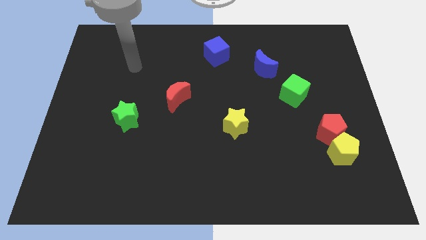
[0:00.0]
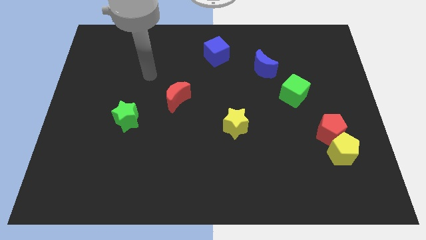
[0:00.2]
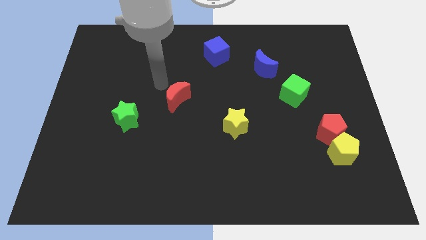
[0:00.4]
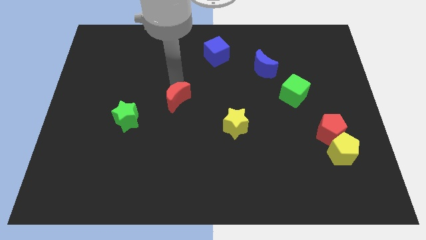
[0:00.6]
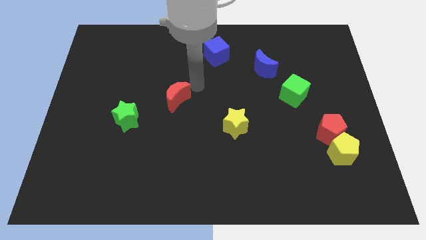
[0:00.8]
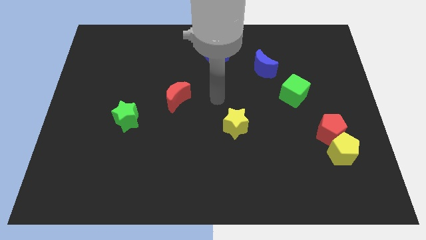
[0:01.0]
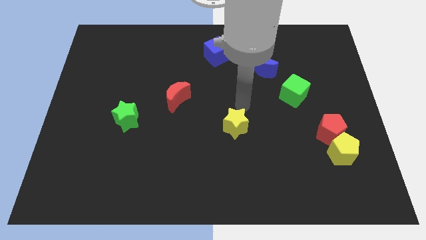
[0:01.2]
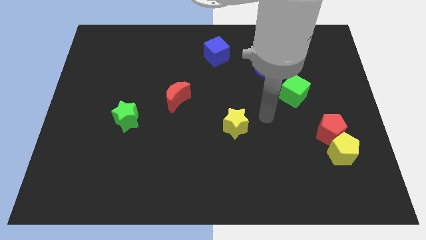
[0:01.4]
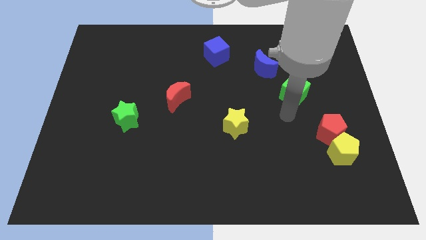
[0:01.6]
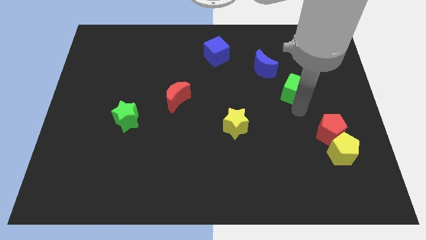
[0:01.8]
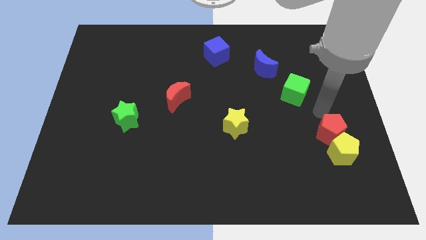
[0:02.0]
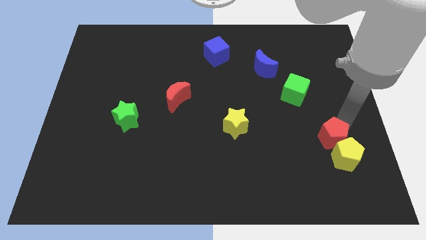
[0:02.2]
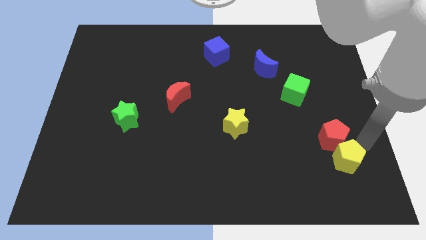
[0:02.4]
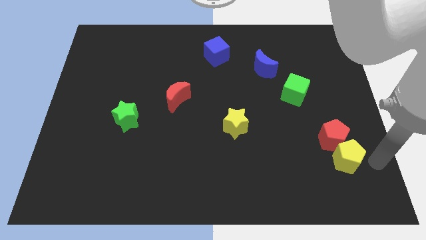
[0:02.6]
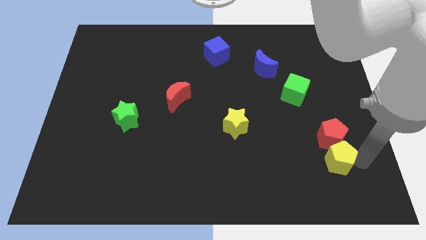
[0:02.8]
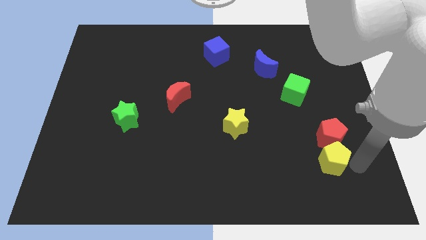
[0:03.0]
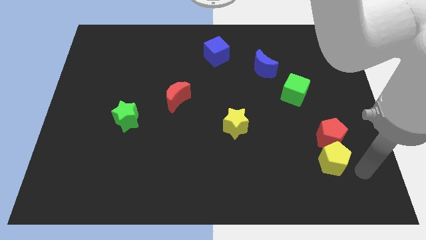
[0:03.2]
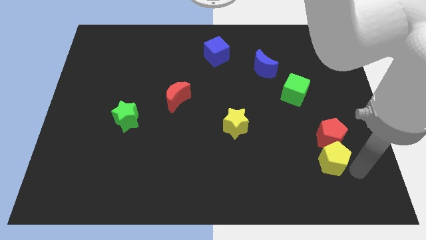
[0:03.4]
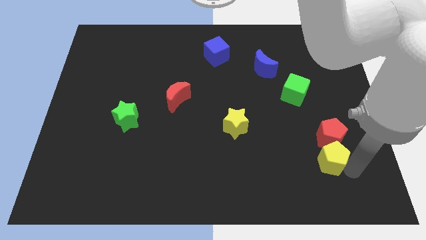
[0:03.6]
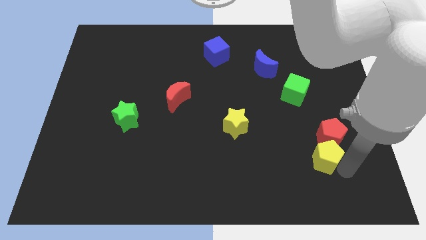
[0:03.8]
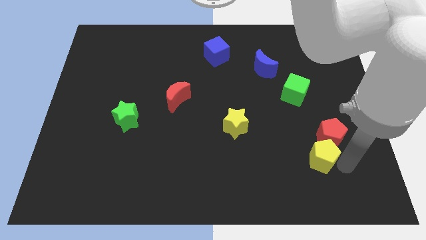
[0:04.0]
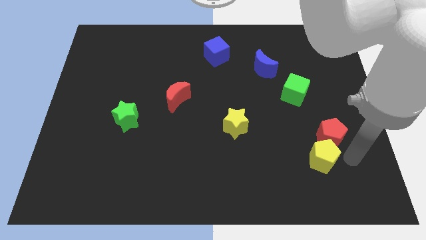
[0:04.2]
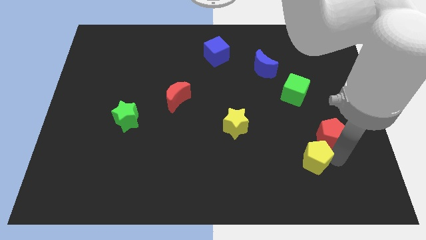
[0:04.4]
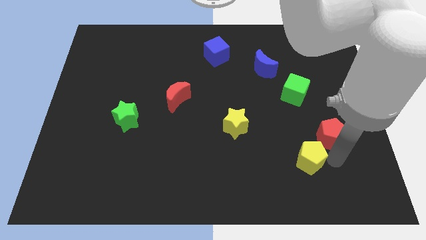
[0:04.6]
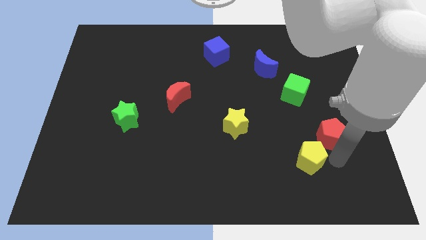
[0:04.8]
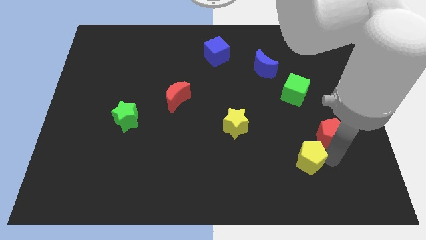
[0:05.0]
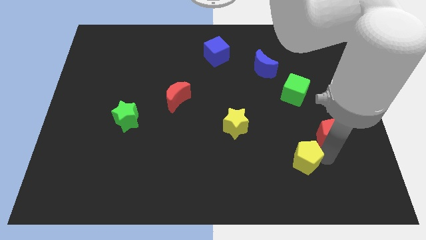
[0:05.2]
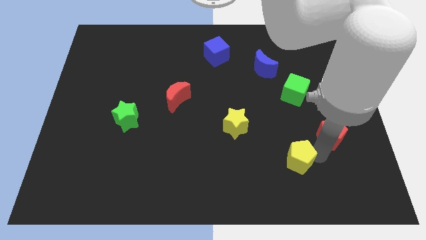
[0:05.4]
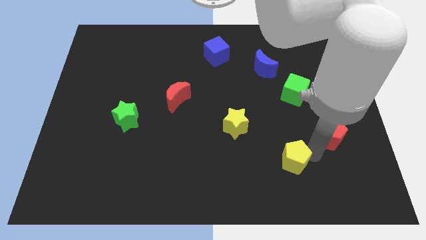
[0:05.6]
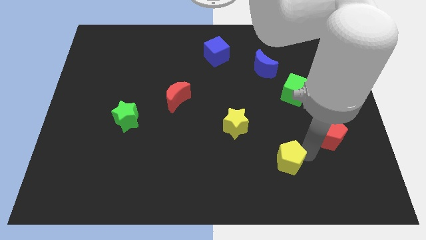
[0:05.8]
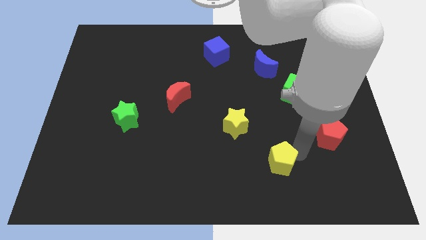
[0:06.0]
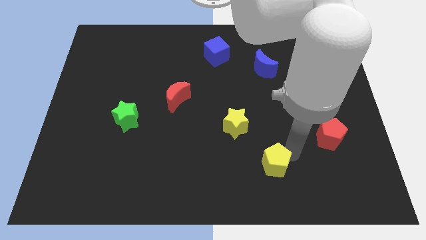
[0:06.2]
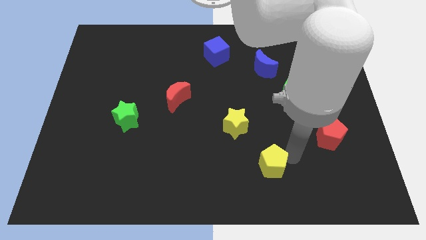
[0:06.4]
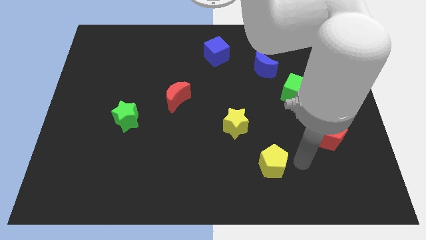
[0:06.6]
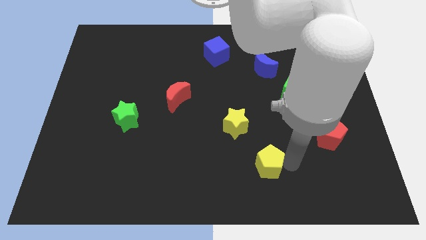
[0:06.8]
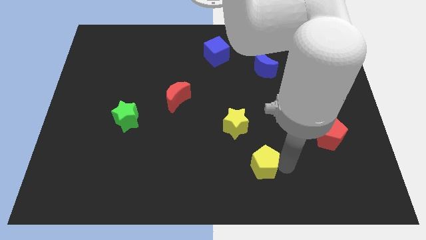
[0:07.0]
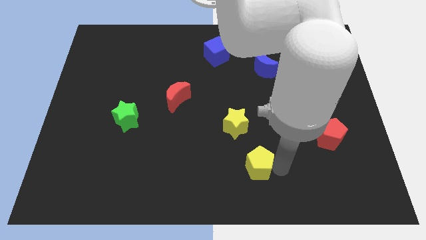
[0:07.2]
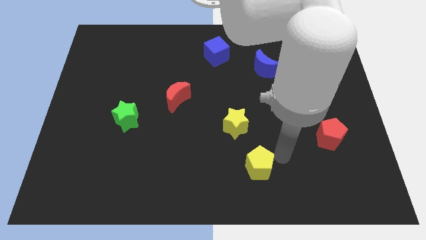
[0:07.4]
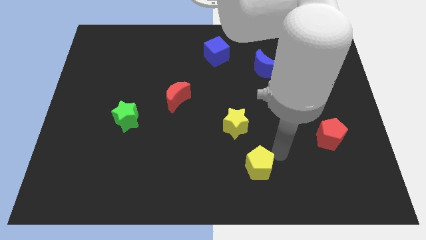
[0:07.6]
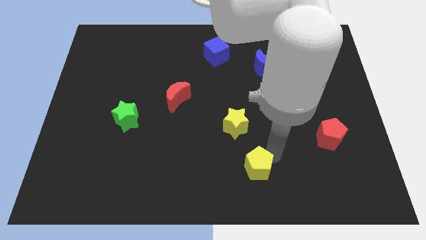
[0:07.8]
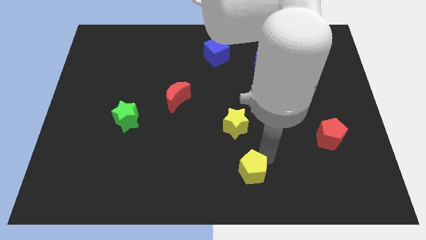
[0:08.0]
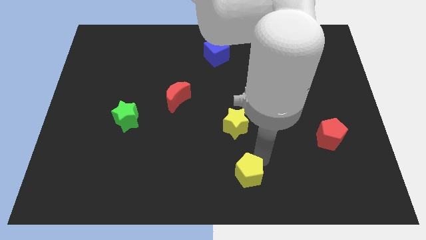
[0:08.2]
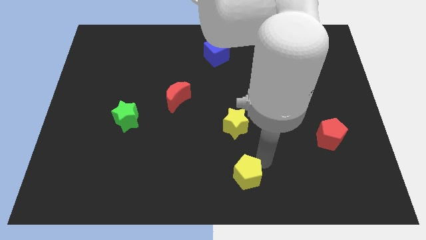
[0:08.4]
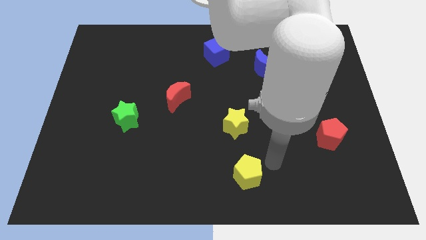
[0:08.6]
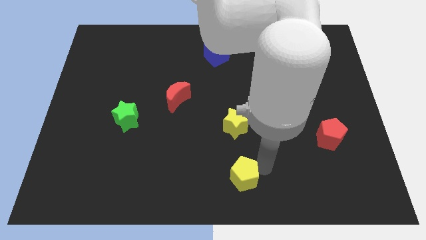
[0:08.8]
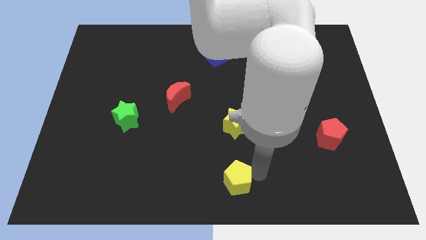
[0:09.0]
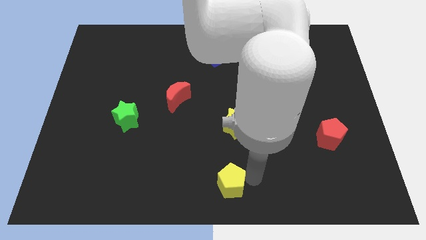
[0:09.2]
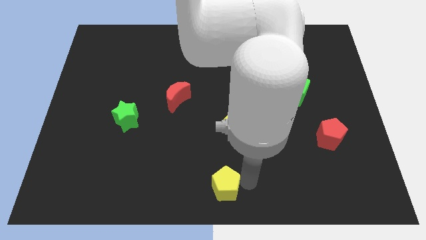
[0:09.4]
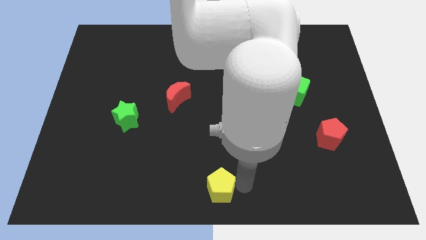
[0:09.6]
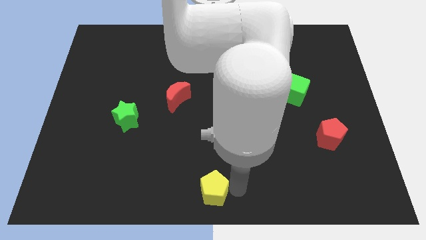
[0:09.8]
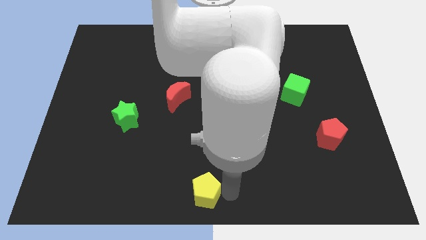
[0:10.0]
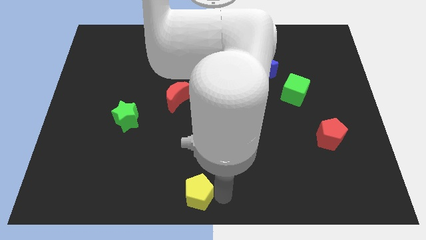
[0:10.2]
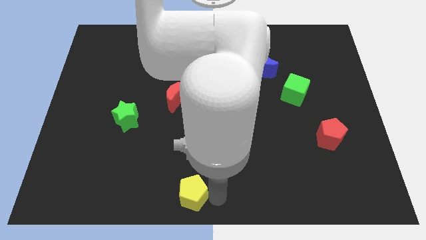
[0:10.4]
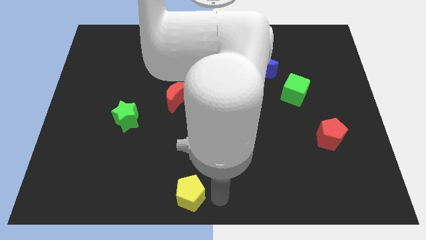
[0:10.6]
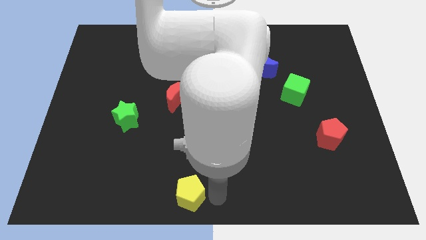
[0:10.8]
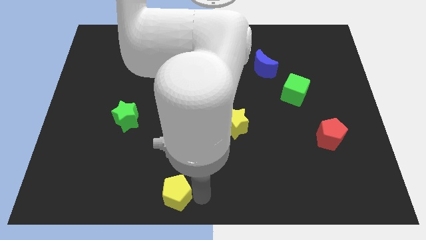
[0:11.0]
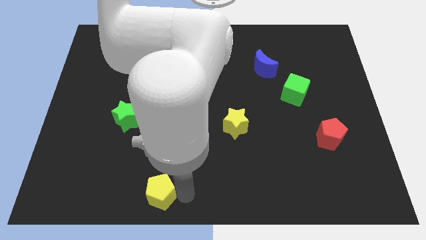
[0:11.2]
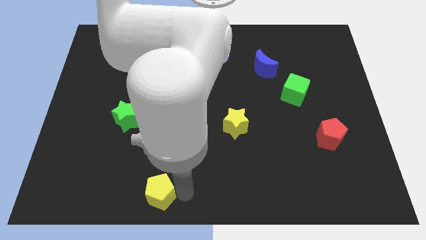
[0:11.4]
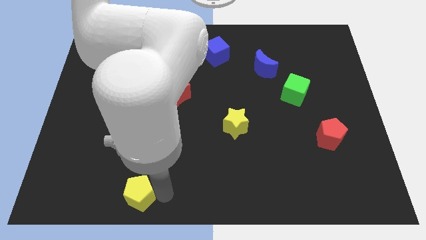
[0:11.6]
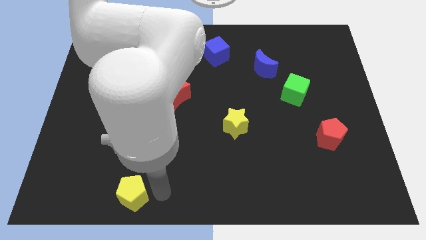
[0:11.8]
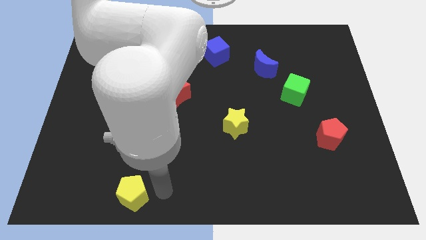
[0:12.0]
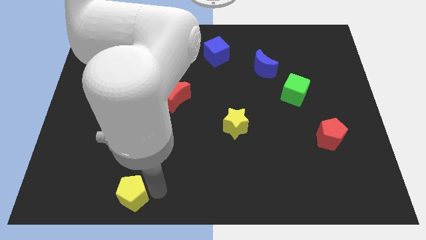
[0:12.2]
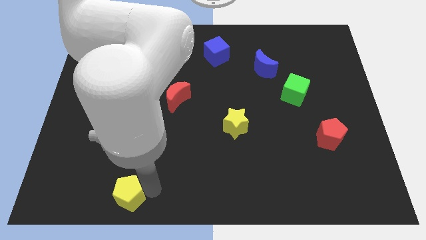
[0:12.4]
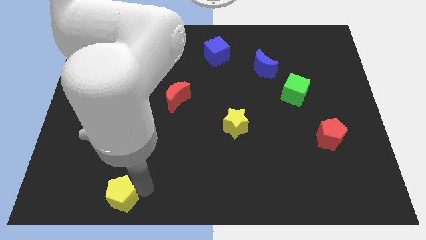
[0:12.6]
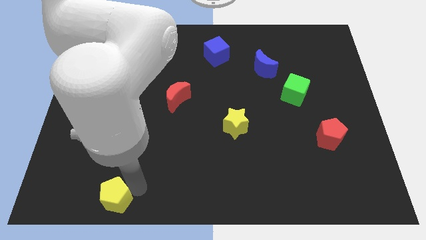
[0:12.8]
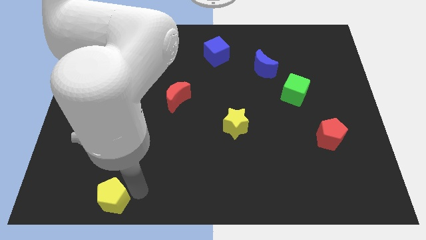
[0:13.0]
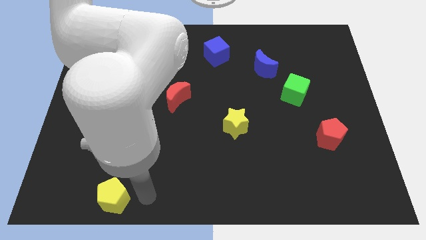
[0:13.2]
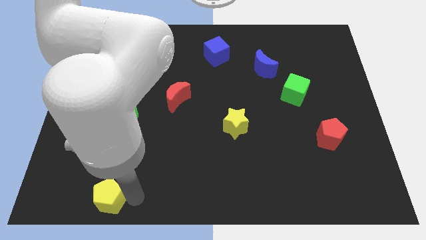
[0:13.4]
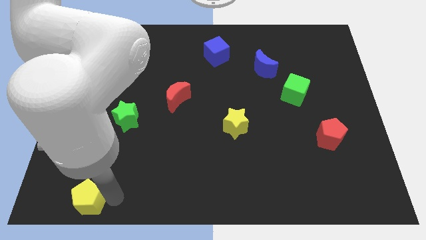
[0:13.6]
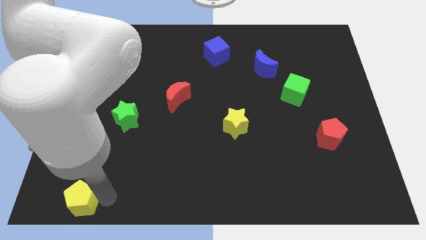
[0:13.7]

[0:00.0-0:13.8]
slide the yellow pentagon to the bottom left

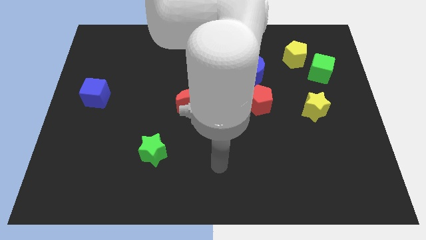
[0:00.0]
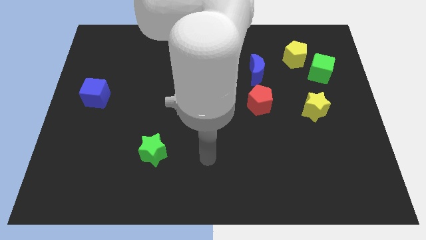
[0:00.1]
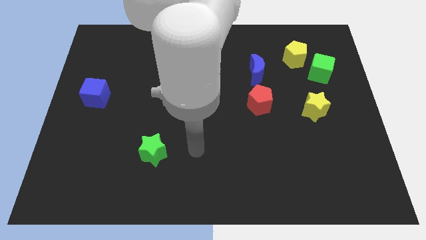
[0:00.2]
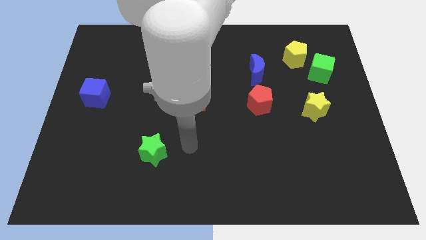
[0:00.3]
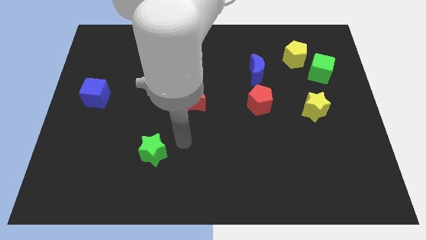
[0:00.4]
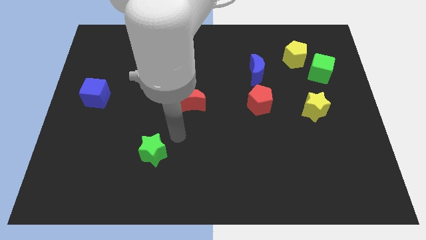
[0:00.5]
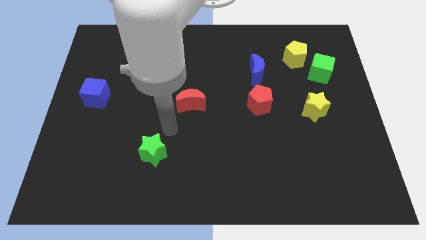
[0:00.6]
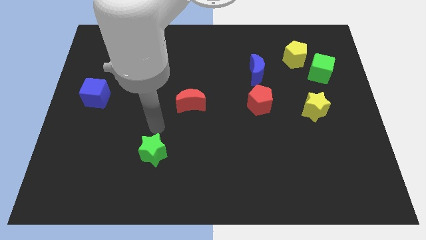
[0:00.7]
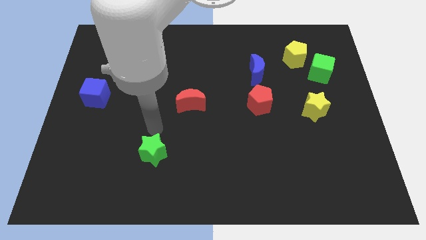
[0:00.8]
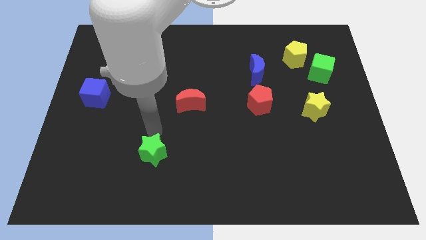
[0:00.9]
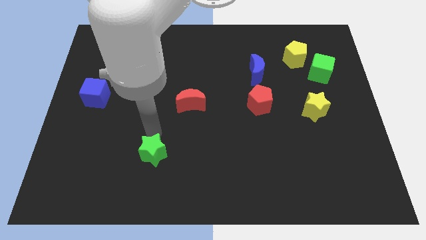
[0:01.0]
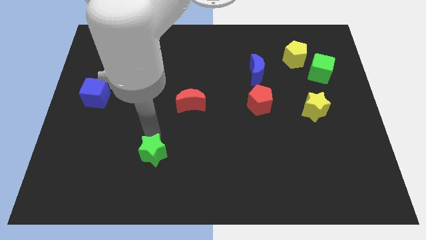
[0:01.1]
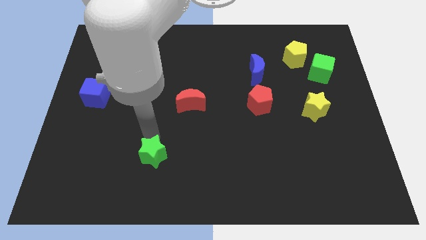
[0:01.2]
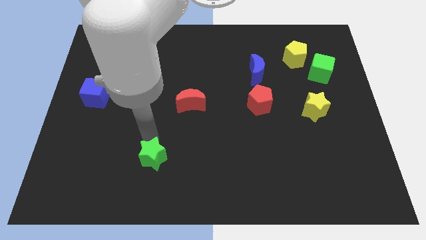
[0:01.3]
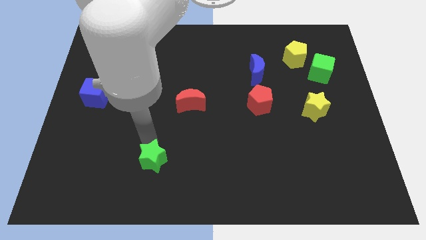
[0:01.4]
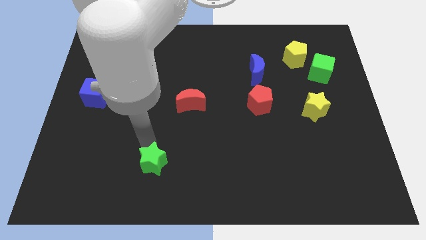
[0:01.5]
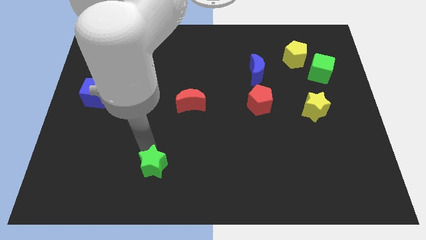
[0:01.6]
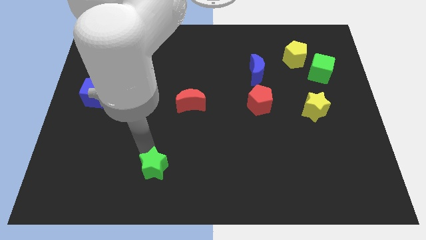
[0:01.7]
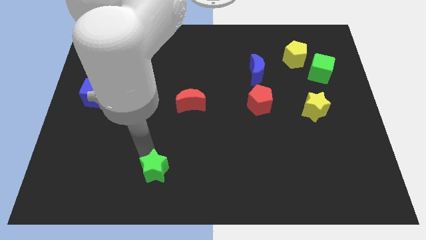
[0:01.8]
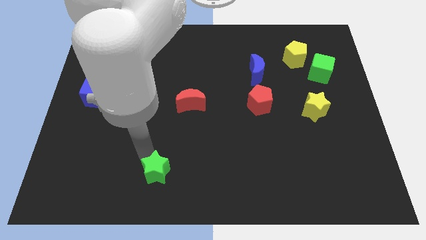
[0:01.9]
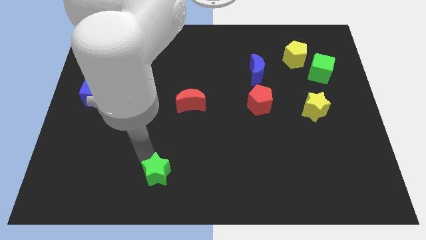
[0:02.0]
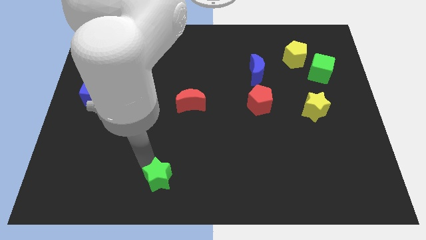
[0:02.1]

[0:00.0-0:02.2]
put the green star to the bottom side
